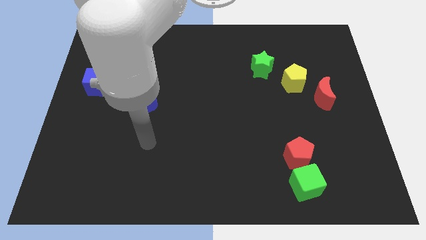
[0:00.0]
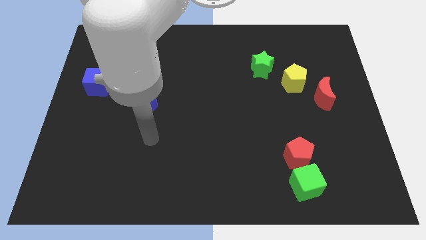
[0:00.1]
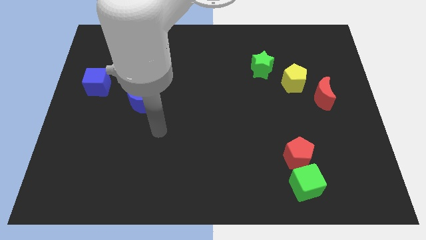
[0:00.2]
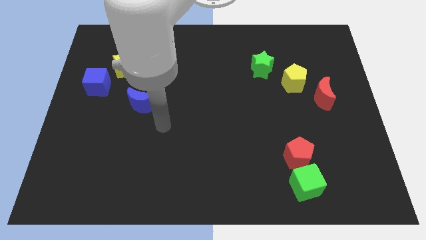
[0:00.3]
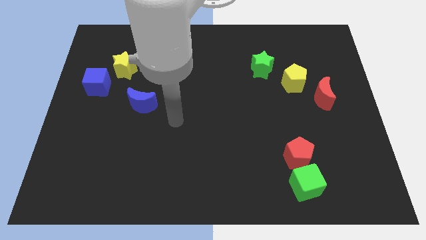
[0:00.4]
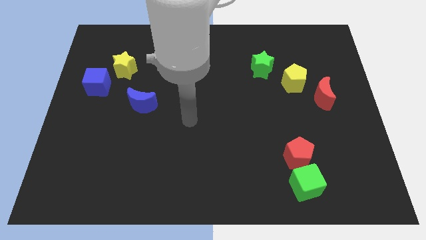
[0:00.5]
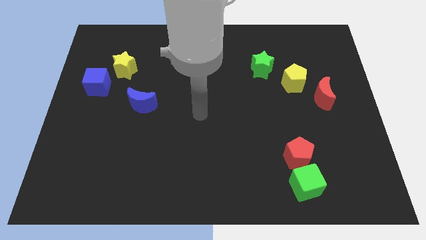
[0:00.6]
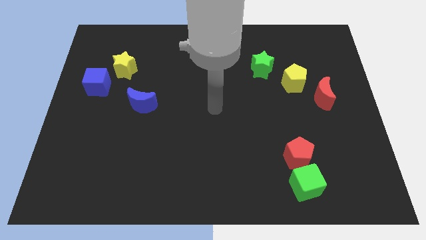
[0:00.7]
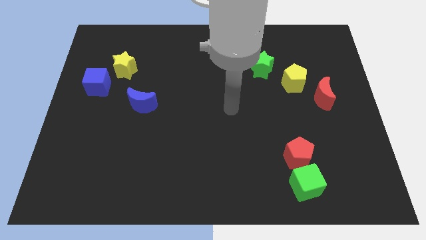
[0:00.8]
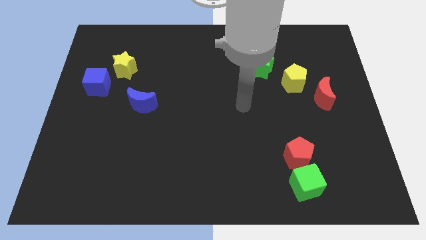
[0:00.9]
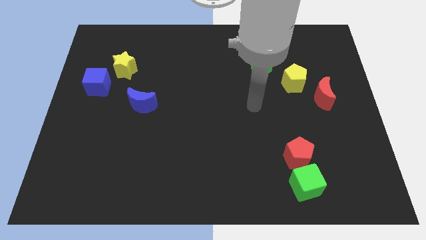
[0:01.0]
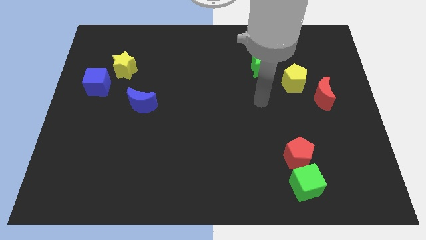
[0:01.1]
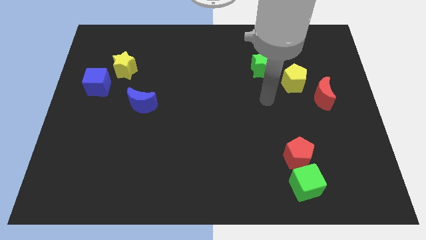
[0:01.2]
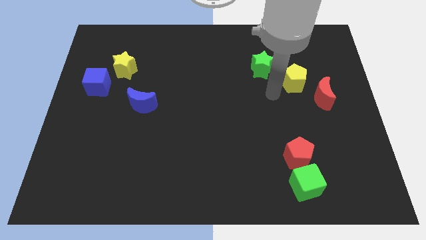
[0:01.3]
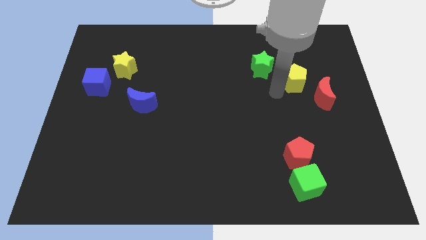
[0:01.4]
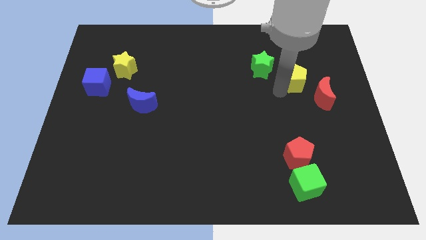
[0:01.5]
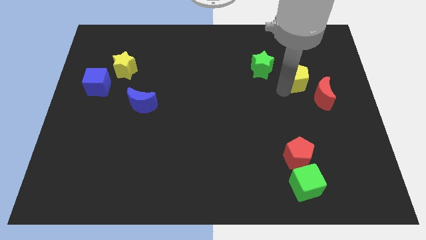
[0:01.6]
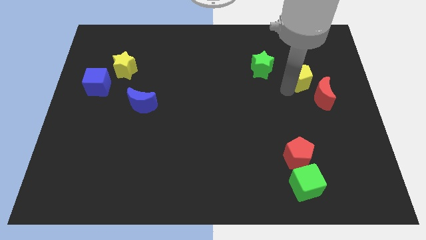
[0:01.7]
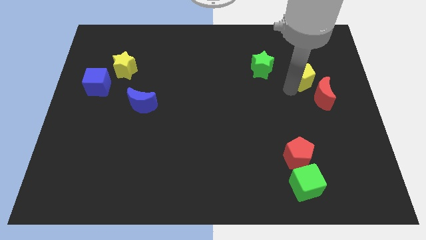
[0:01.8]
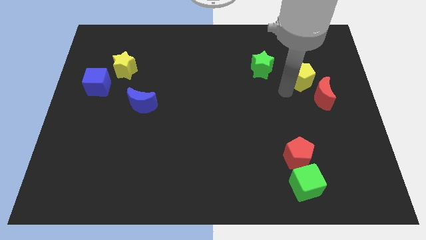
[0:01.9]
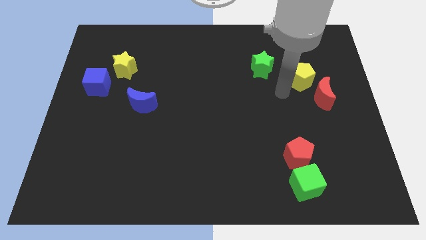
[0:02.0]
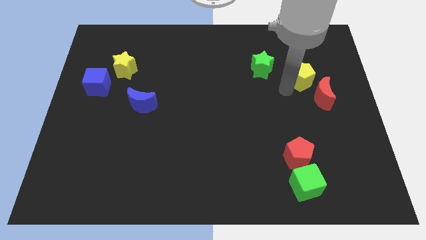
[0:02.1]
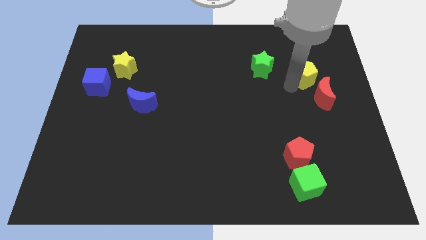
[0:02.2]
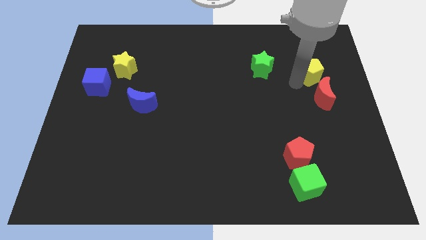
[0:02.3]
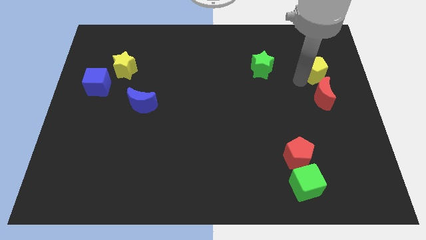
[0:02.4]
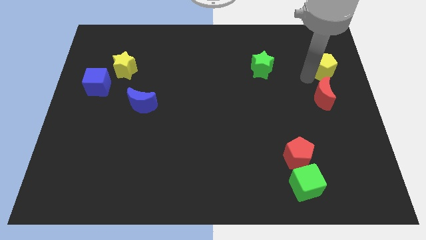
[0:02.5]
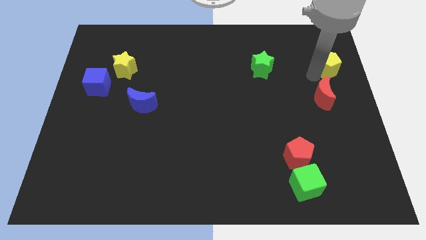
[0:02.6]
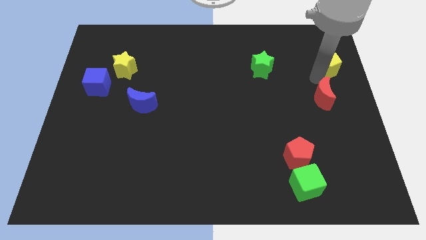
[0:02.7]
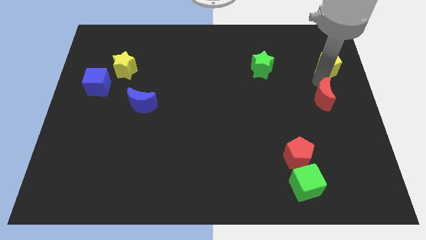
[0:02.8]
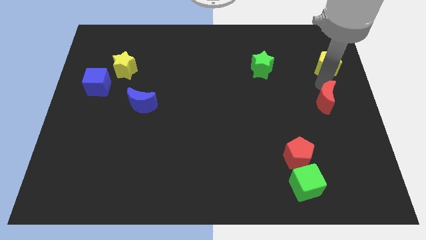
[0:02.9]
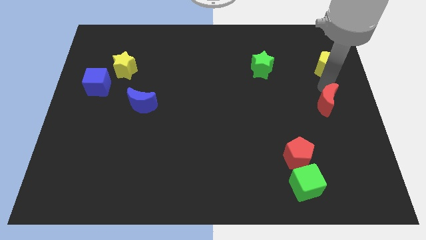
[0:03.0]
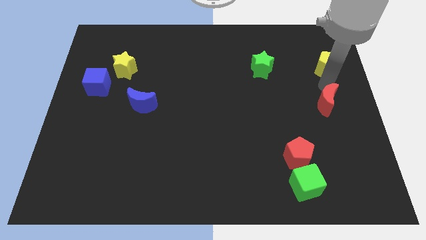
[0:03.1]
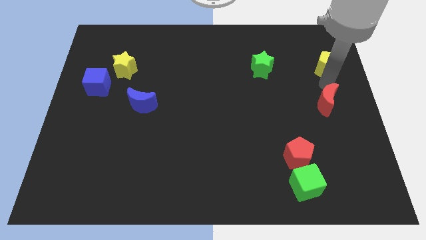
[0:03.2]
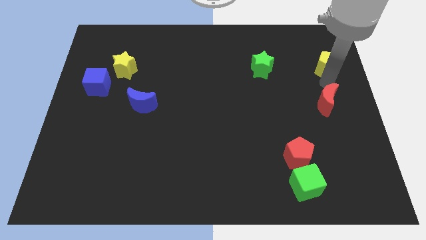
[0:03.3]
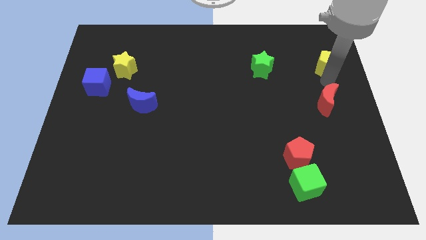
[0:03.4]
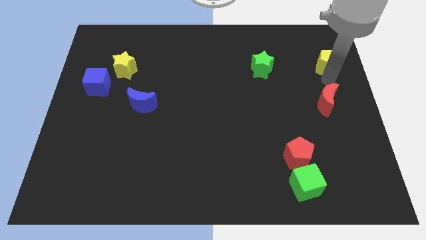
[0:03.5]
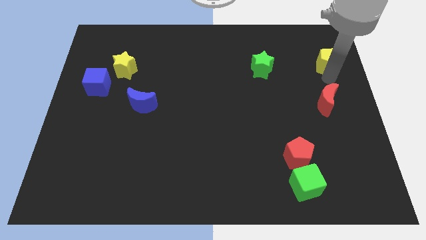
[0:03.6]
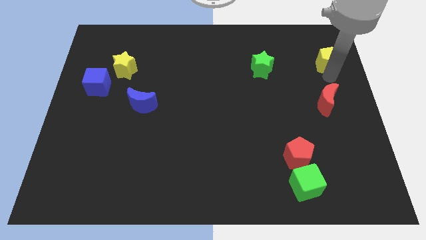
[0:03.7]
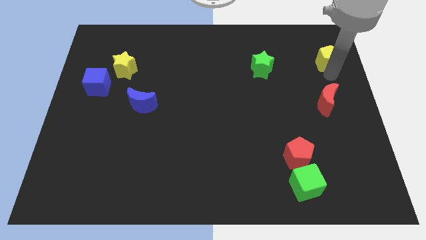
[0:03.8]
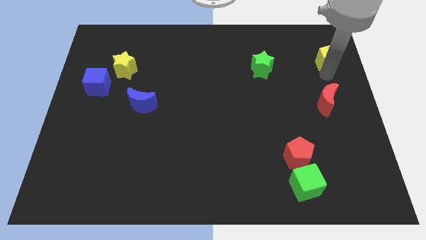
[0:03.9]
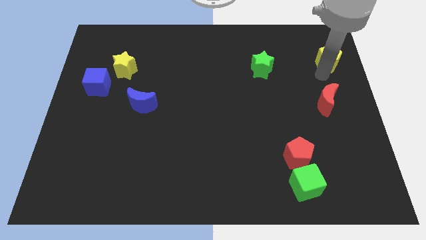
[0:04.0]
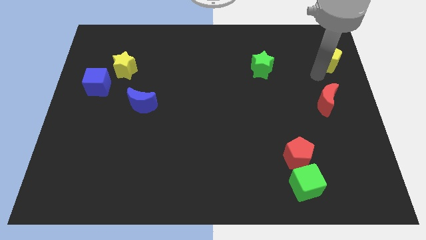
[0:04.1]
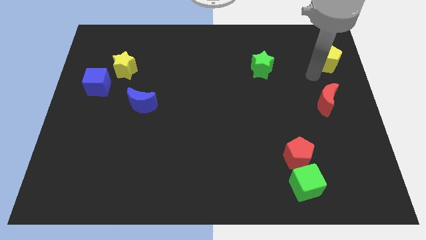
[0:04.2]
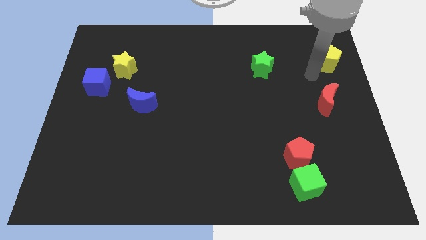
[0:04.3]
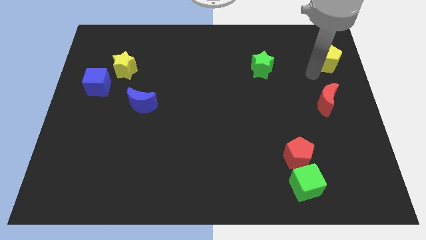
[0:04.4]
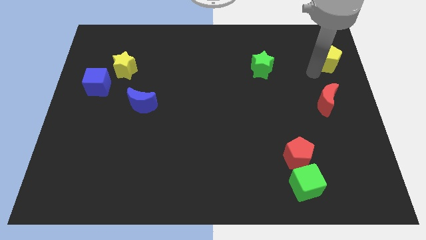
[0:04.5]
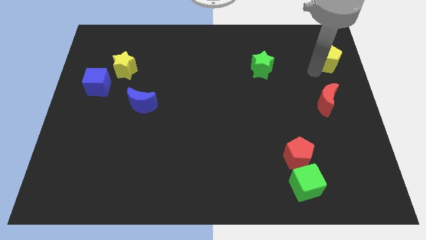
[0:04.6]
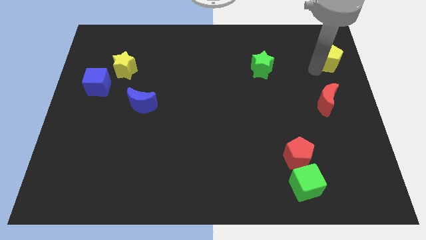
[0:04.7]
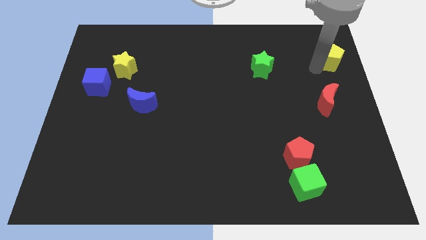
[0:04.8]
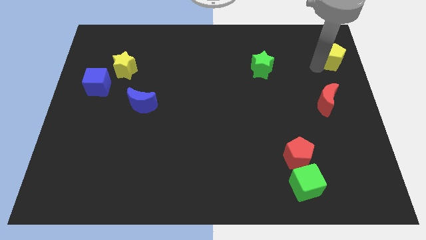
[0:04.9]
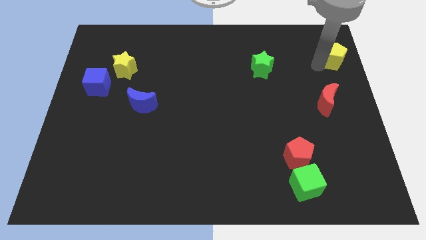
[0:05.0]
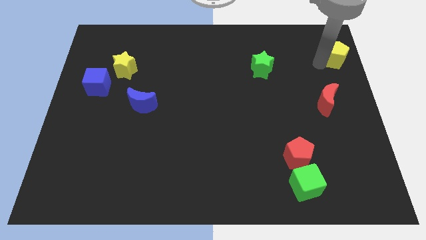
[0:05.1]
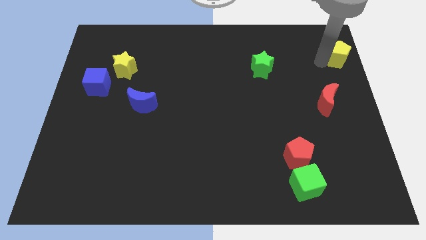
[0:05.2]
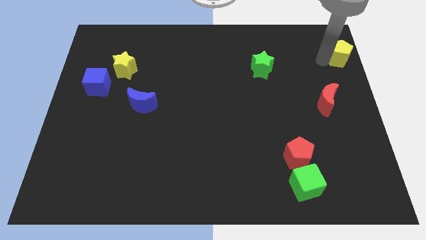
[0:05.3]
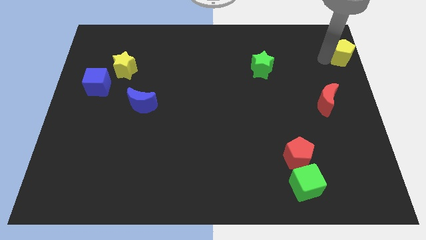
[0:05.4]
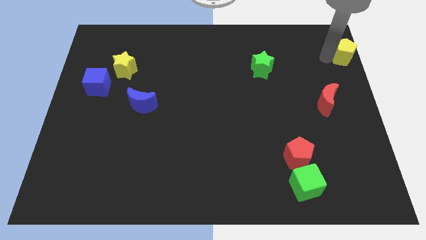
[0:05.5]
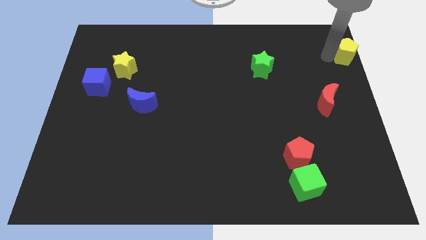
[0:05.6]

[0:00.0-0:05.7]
move the yellow pentagon to the top right
